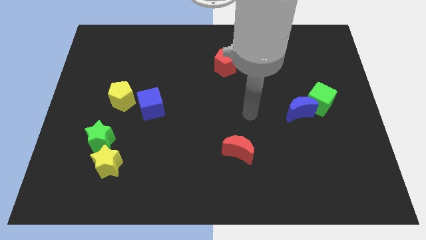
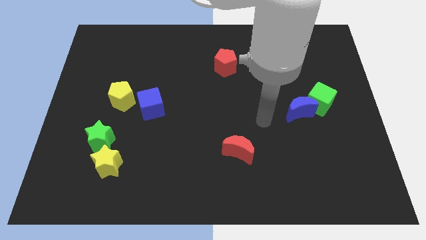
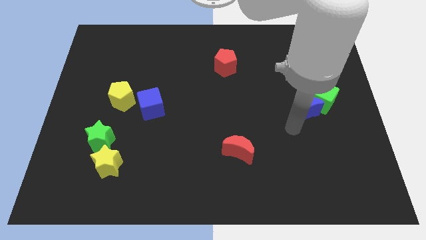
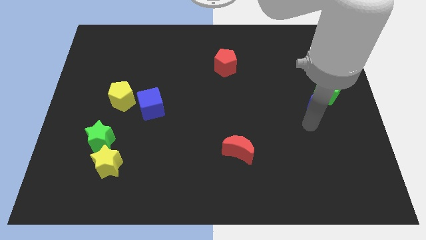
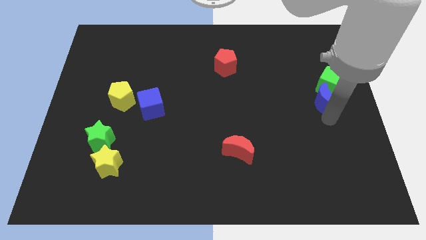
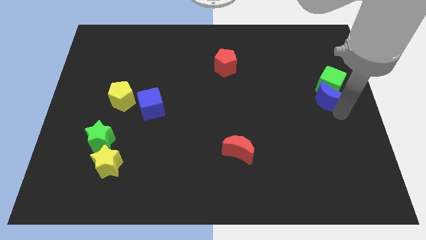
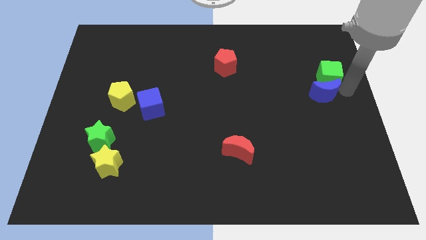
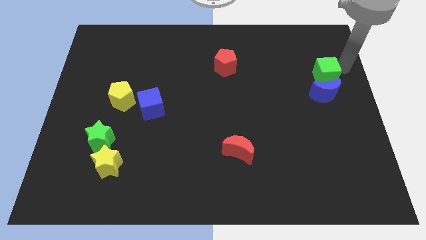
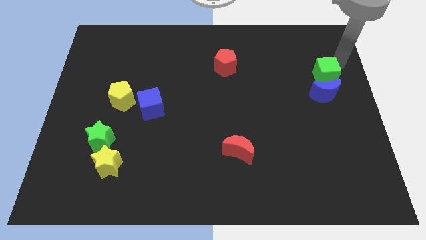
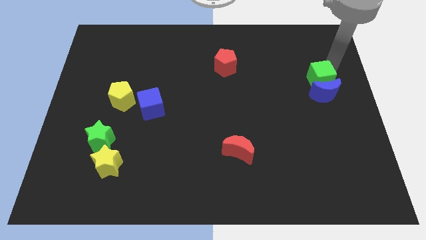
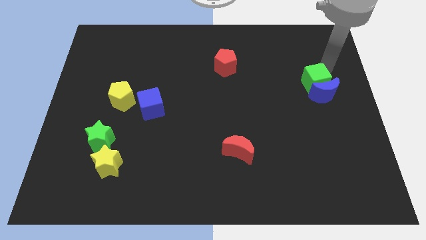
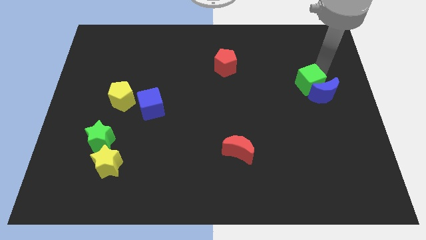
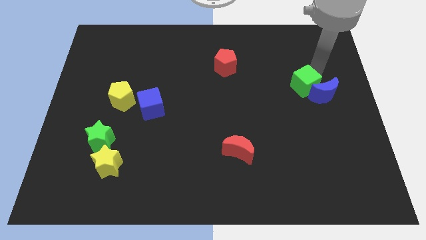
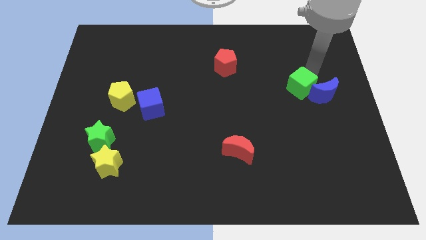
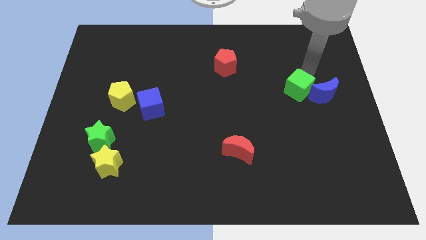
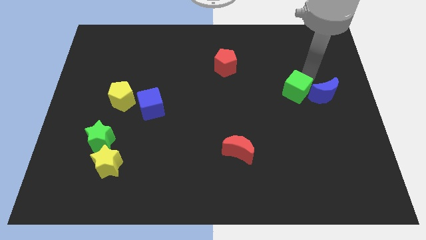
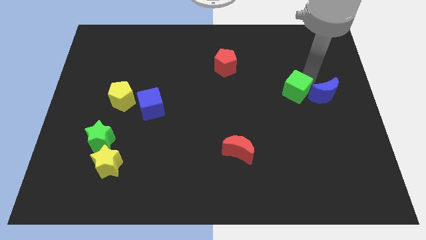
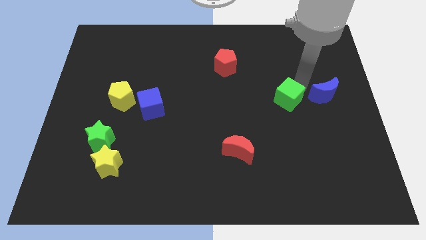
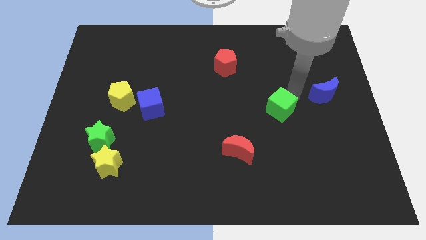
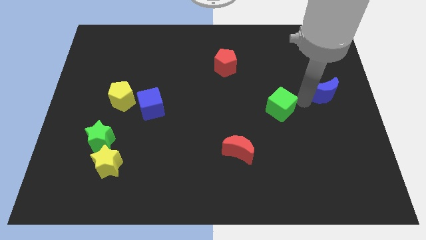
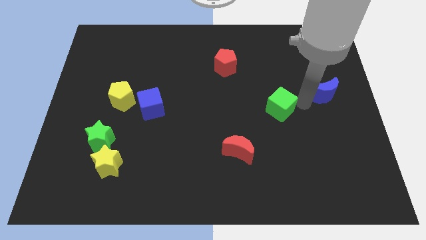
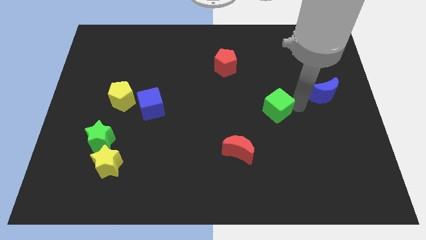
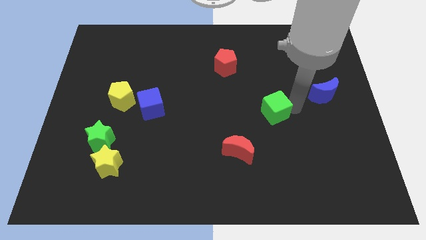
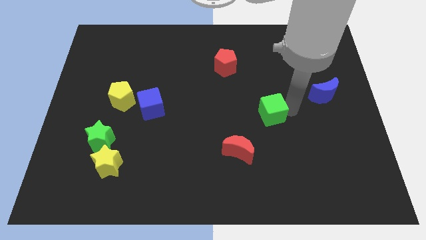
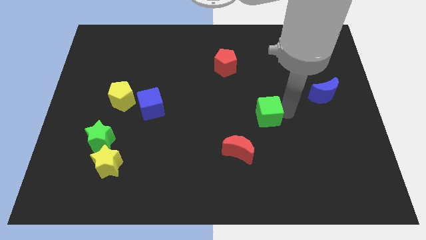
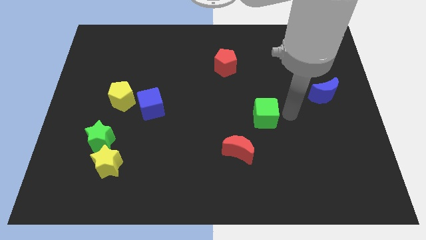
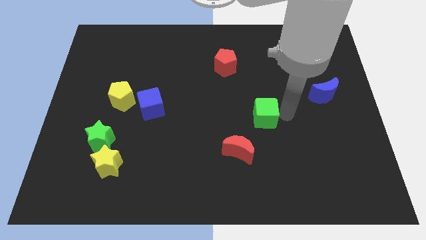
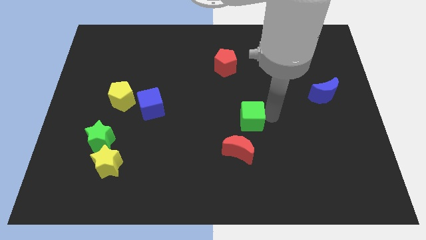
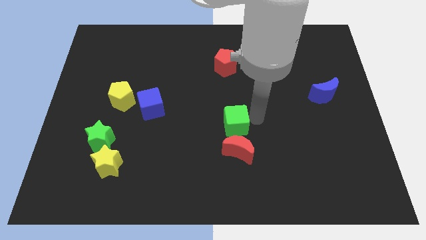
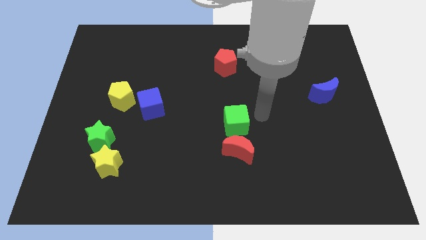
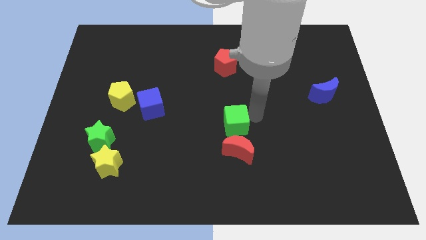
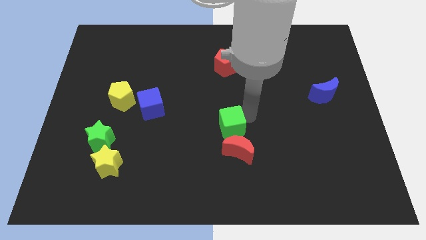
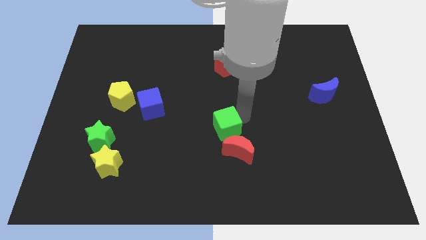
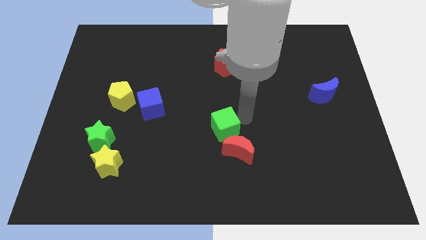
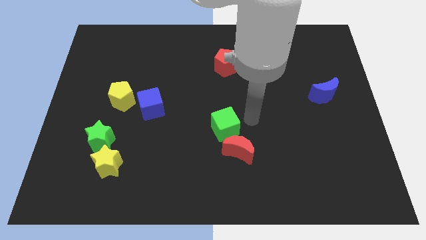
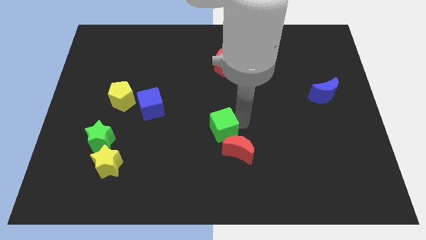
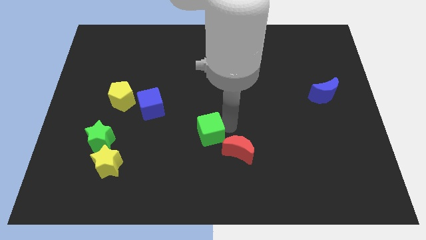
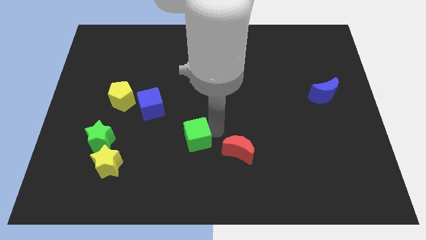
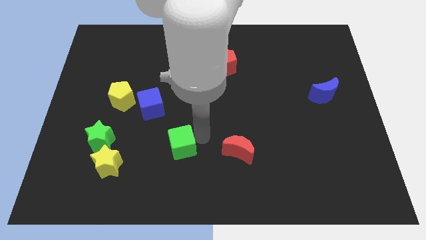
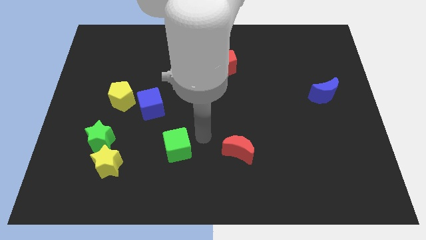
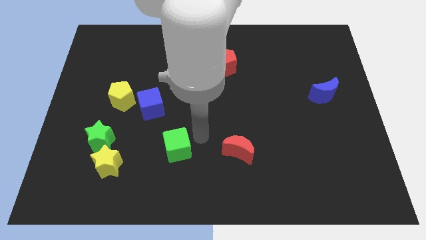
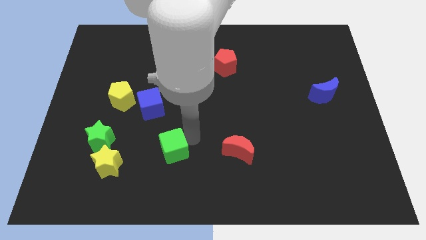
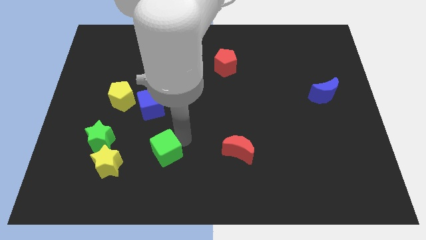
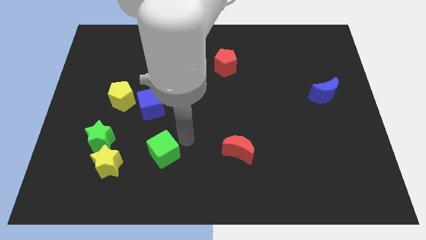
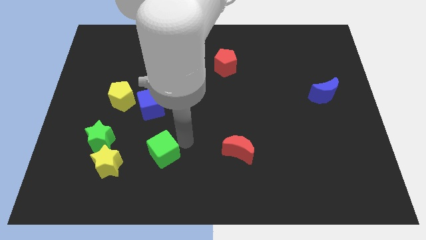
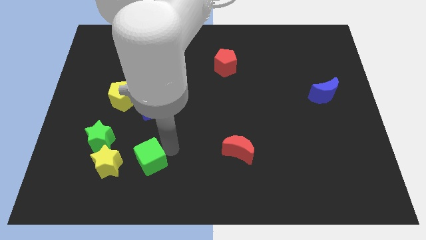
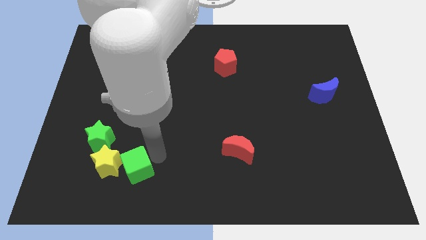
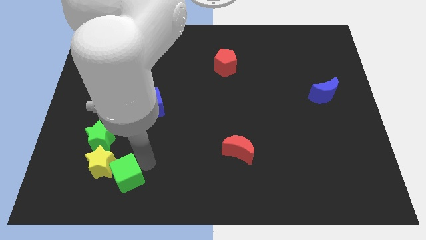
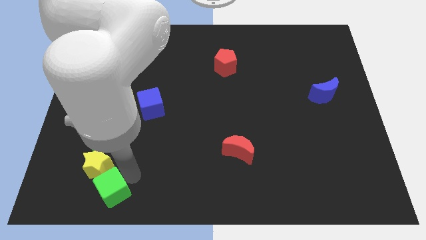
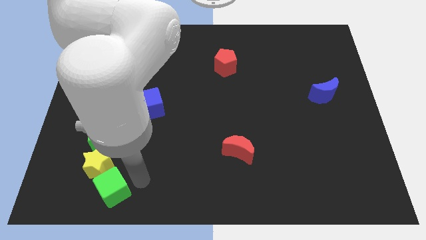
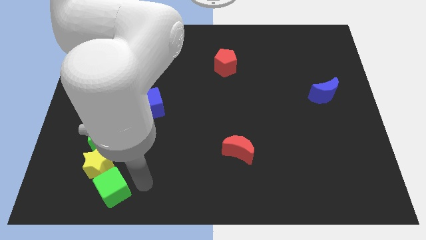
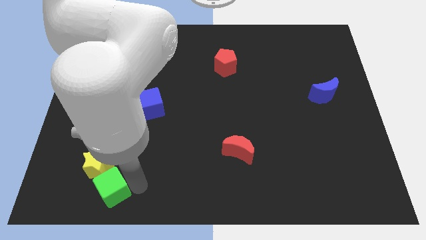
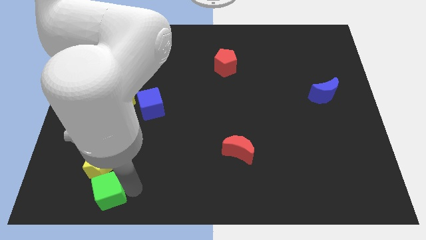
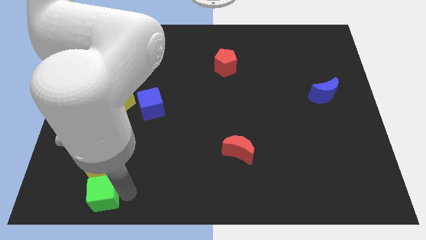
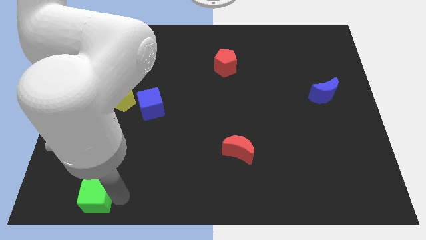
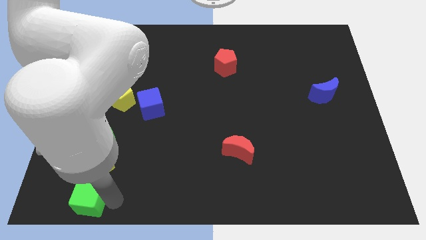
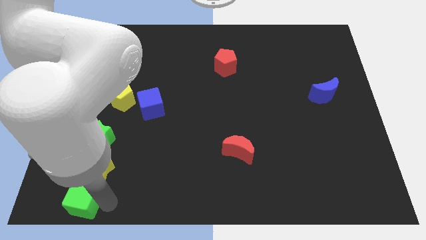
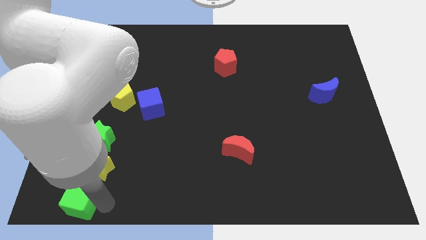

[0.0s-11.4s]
slide the green cube to the bottom left corner

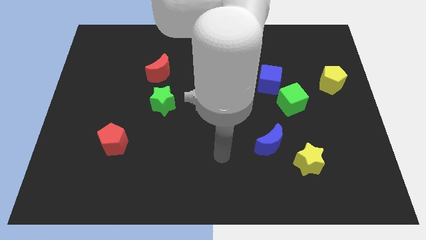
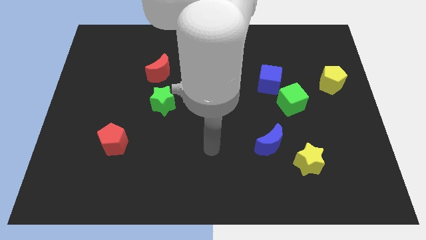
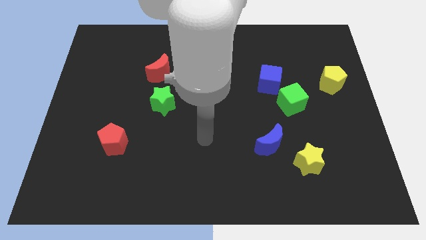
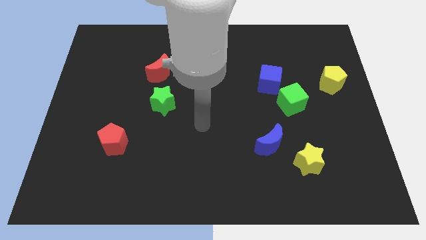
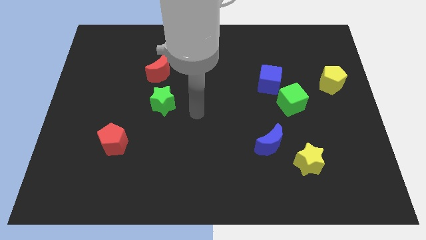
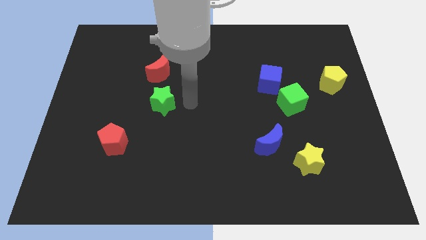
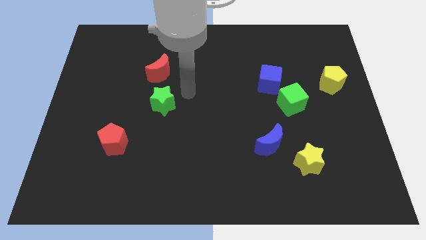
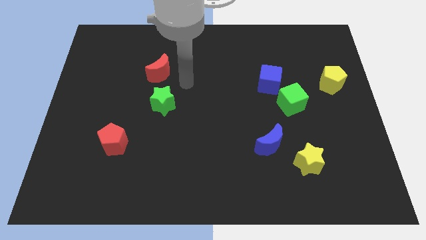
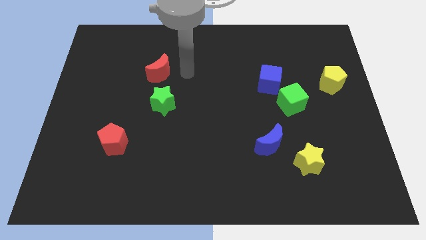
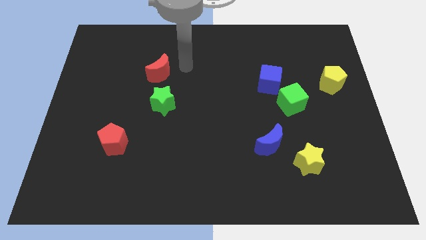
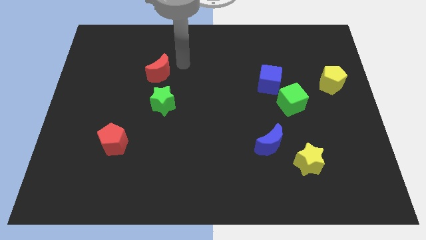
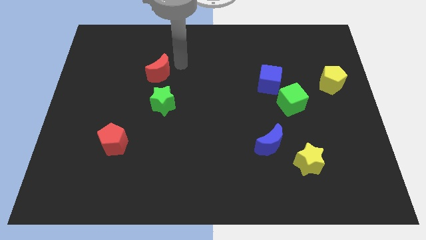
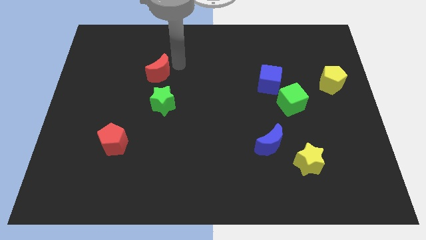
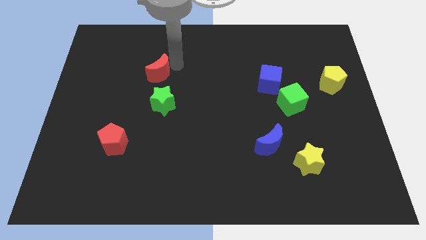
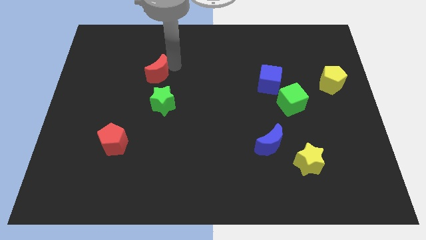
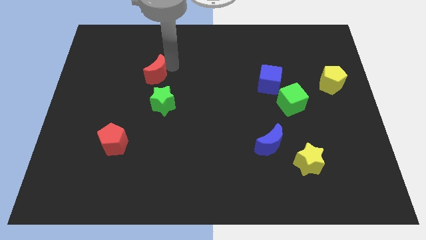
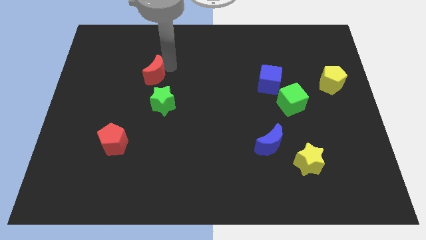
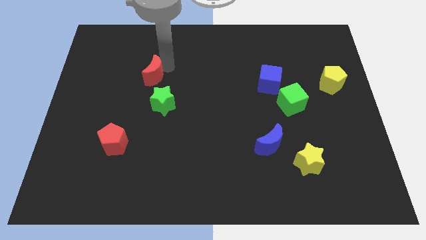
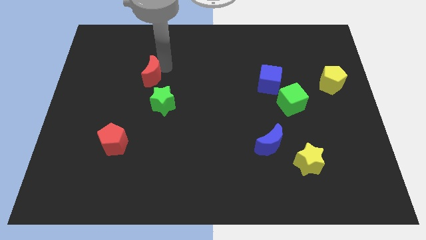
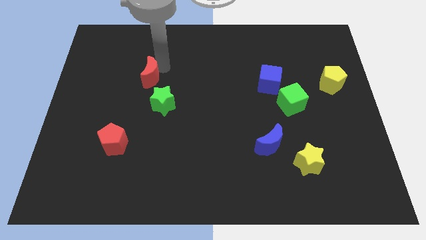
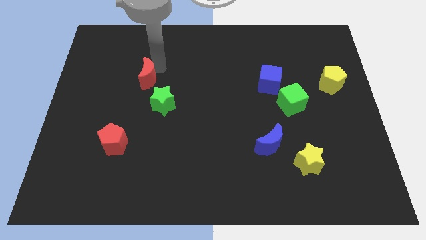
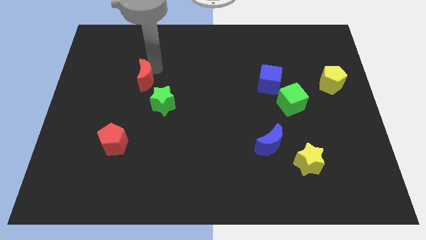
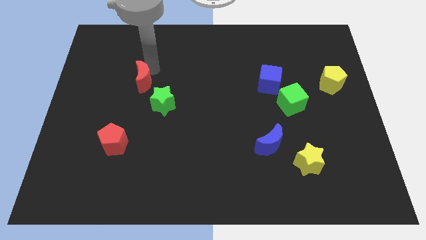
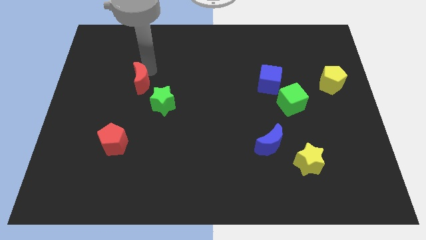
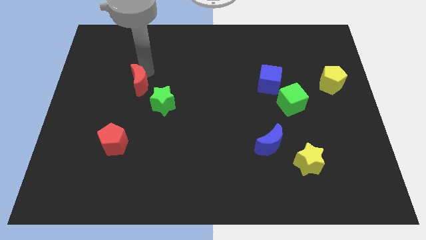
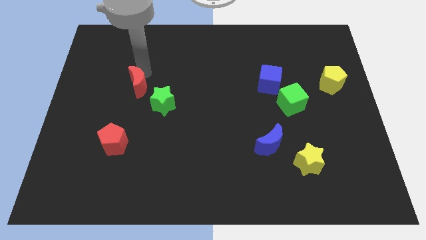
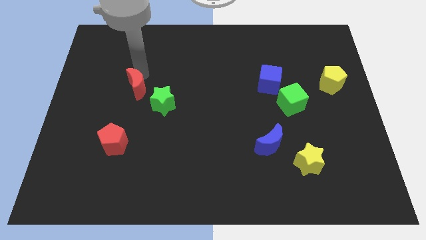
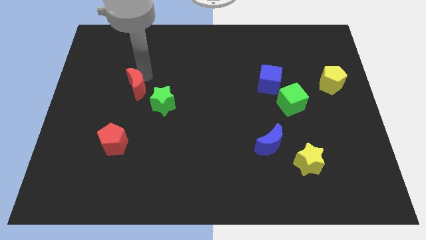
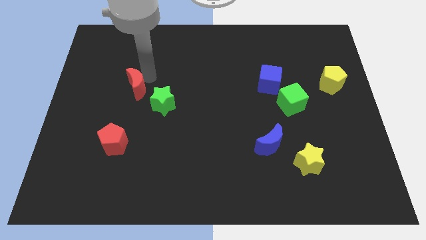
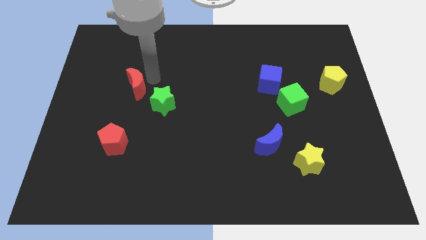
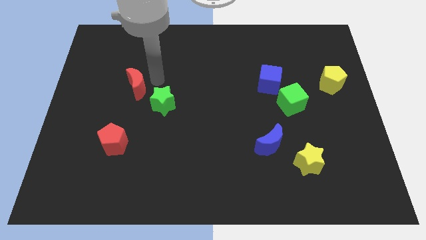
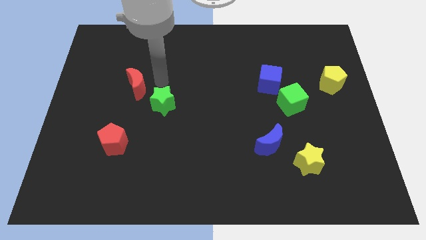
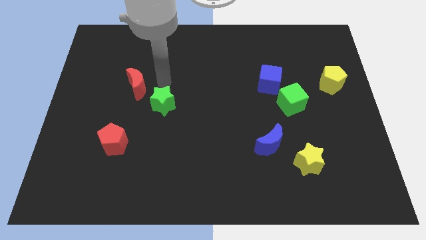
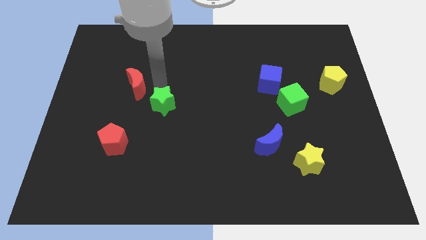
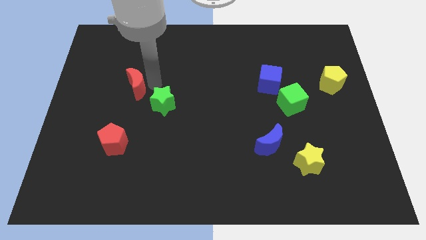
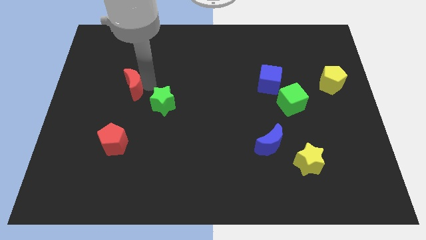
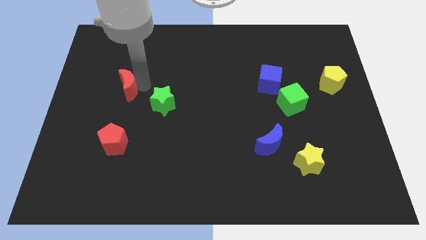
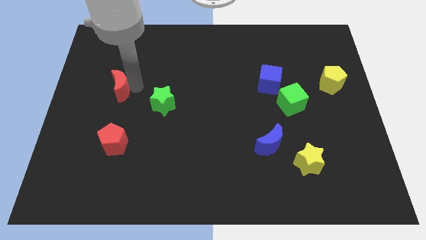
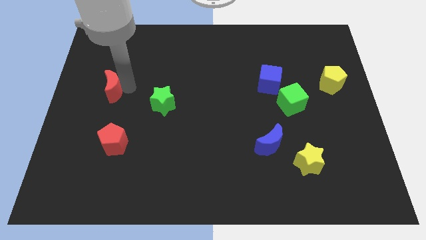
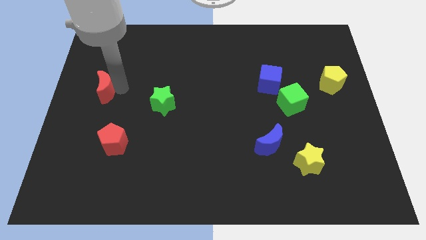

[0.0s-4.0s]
push the red moon to the left side
